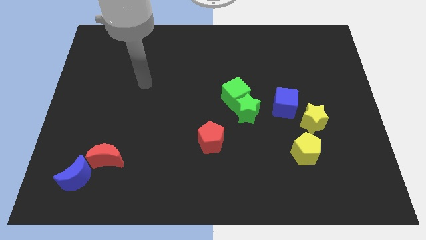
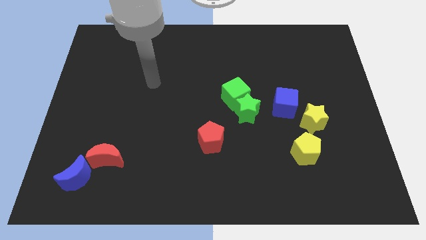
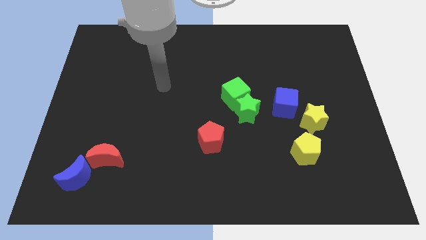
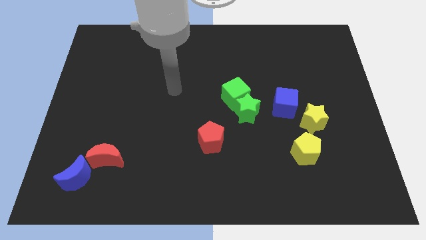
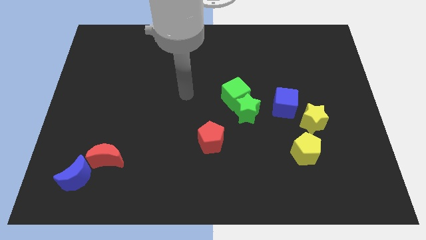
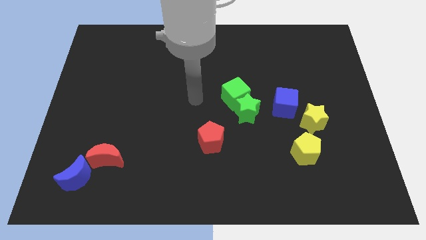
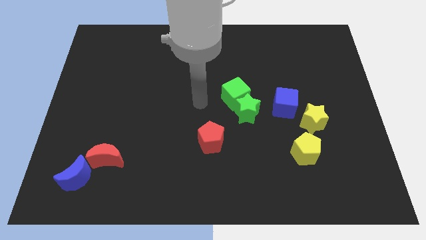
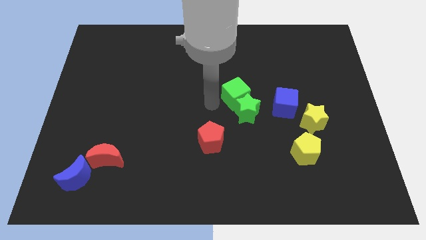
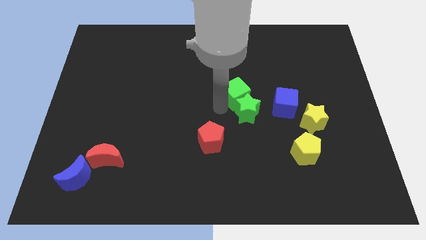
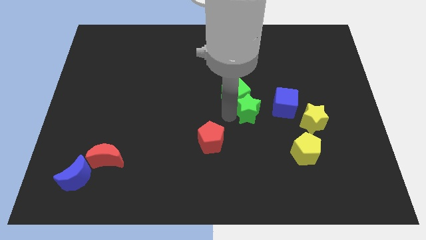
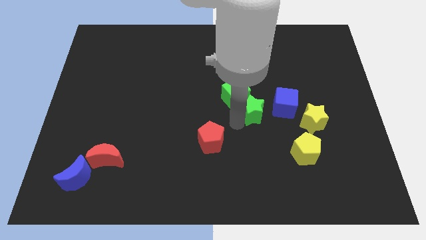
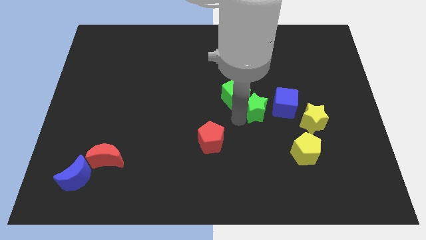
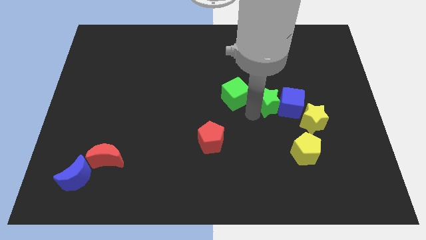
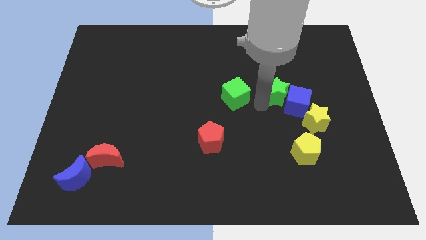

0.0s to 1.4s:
pull the green cube apart from the green star

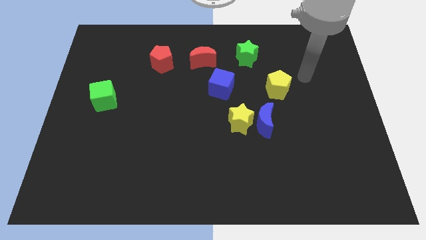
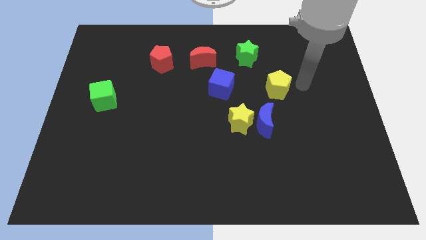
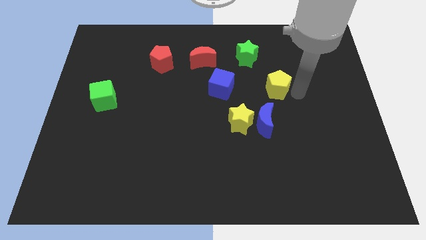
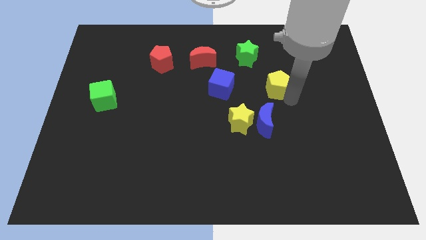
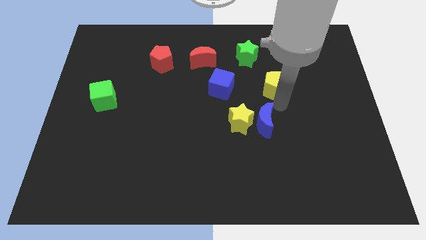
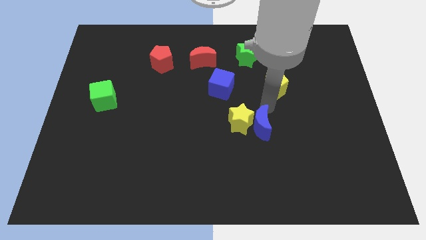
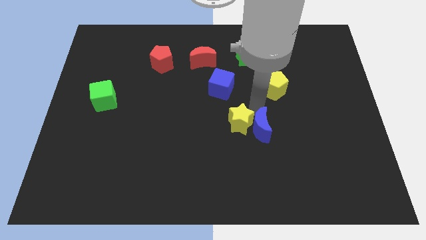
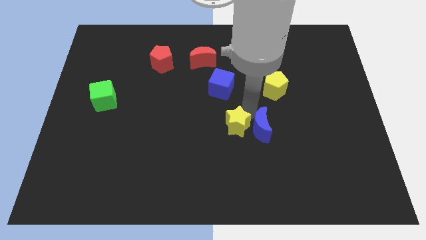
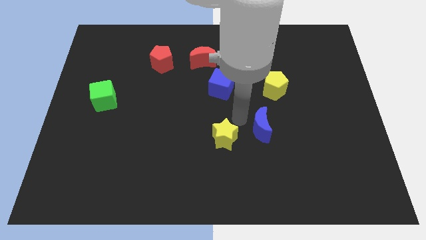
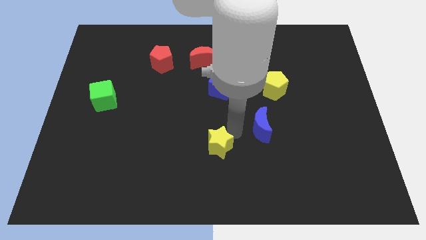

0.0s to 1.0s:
pull the blue moon apart from the yellow star

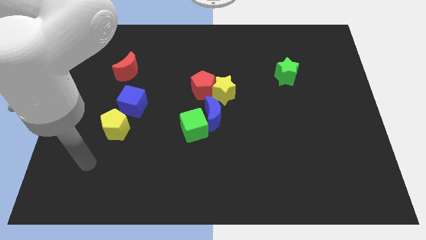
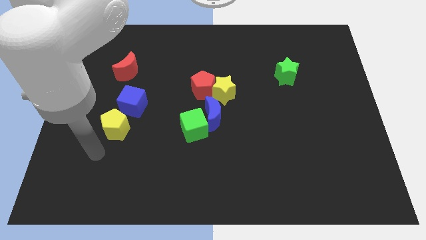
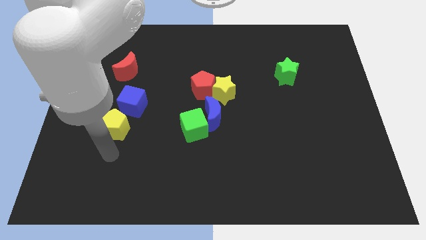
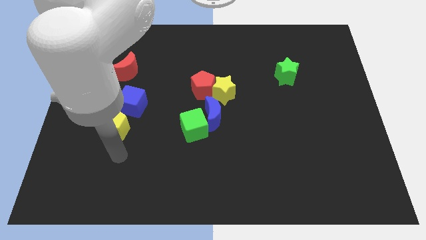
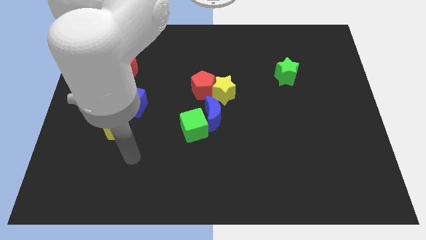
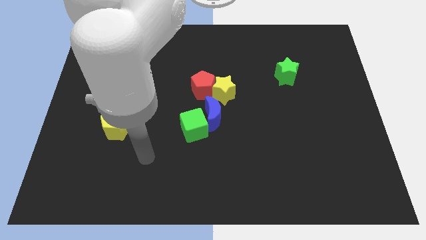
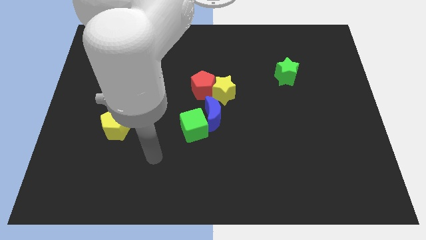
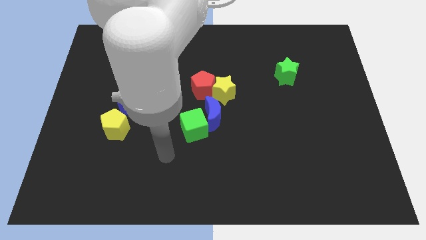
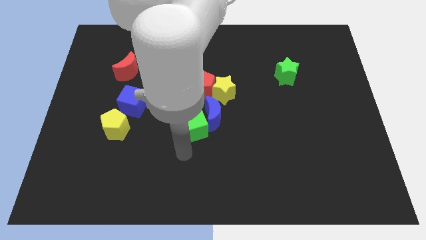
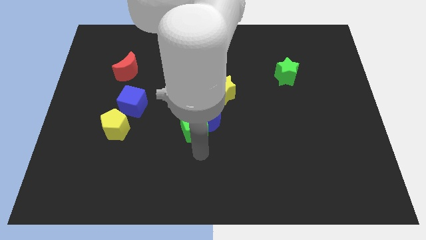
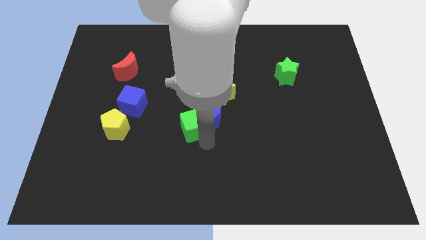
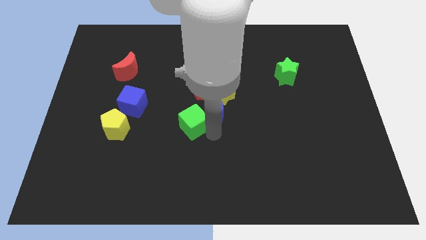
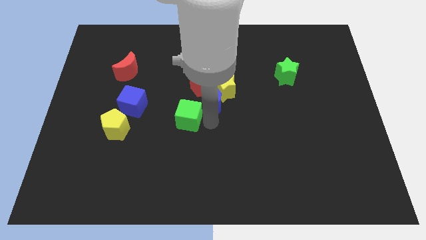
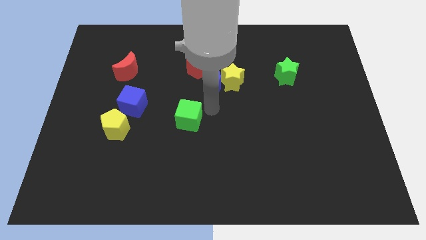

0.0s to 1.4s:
pull the green cube apart from the blue moon

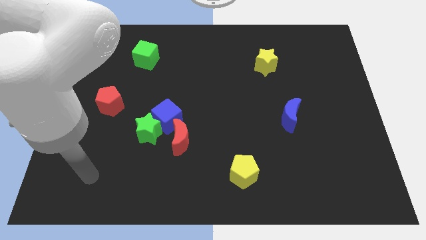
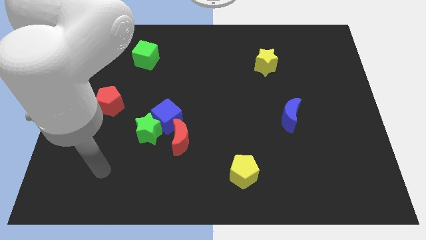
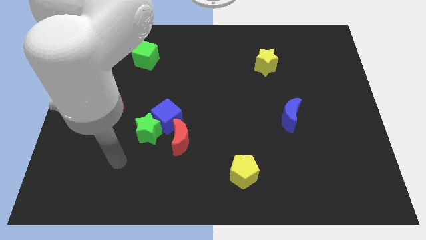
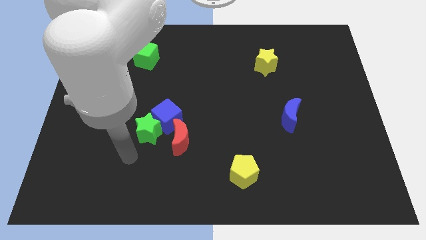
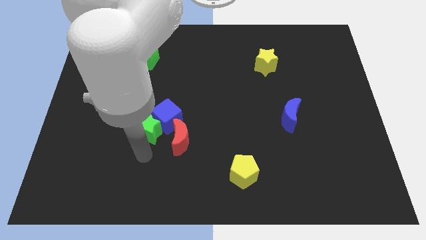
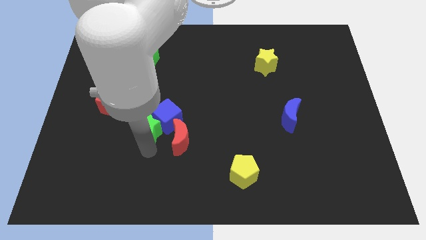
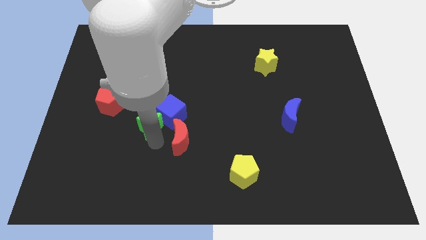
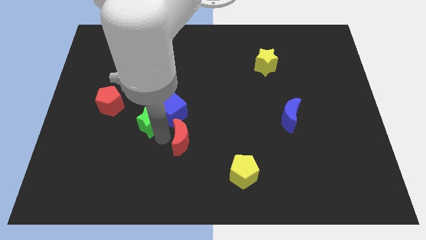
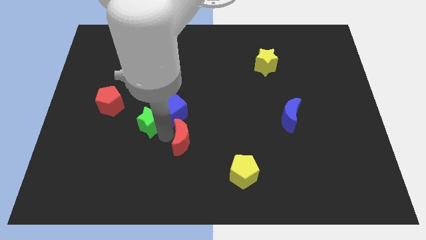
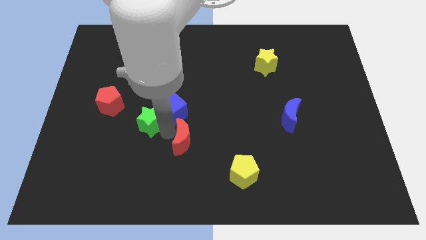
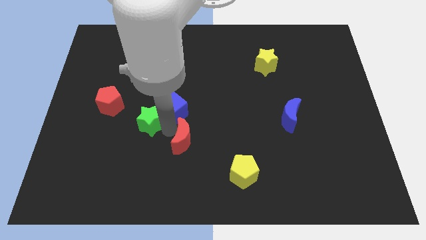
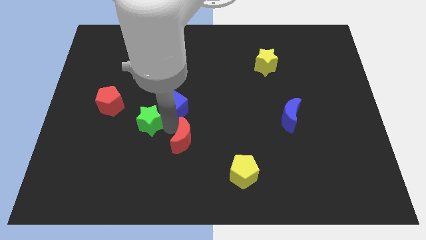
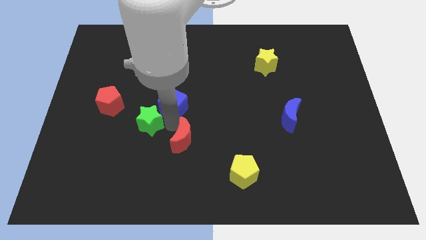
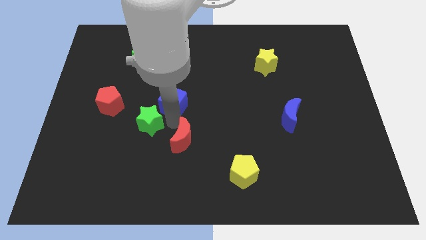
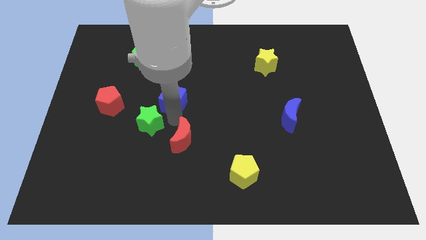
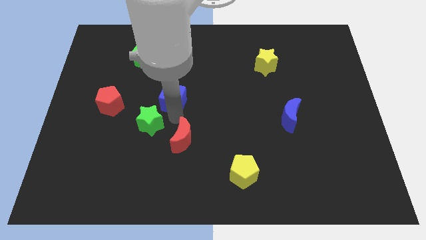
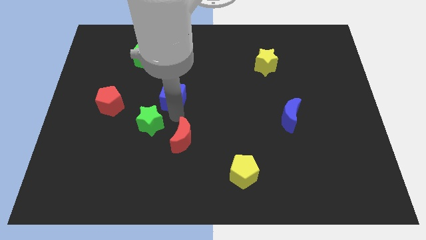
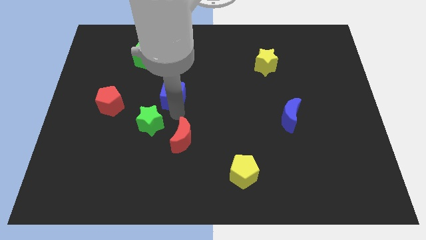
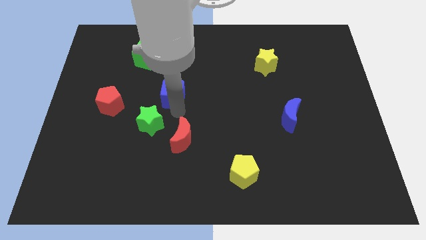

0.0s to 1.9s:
pull the blue cube apart from the green star and red moon

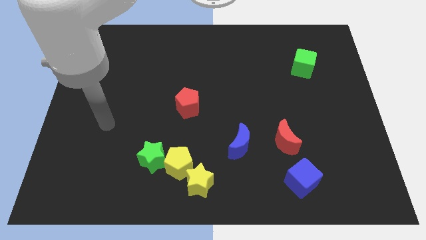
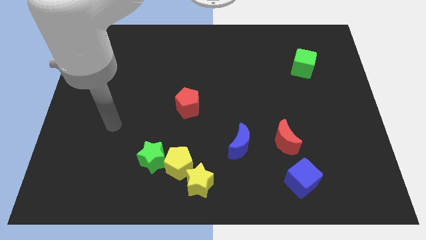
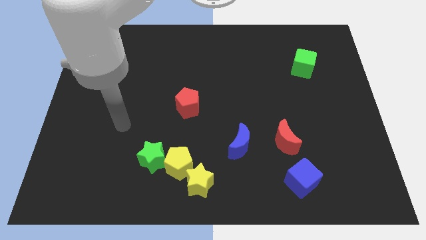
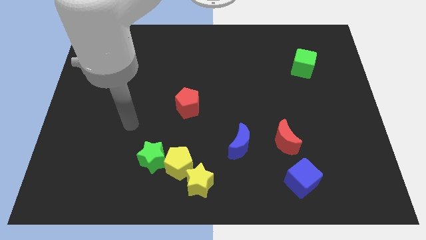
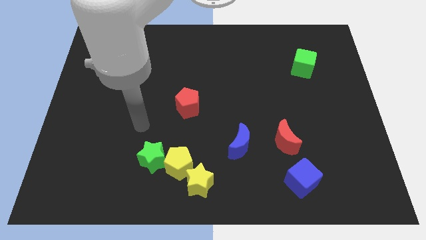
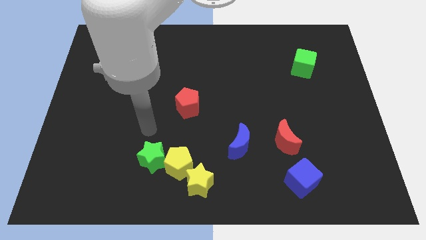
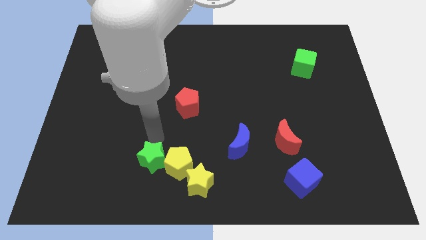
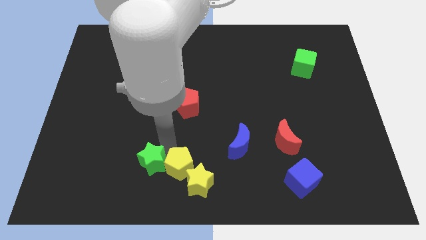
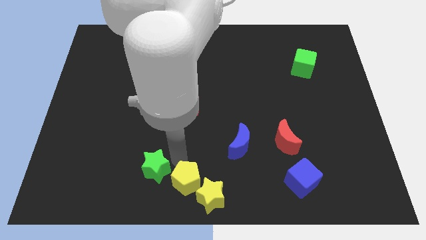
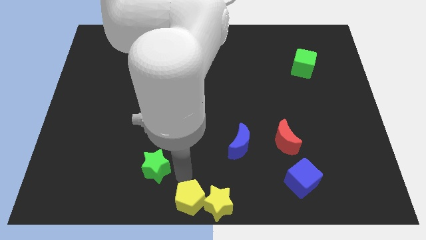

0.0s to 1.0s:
separate the green star from the yellow pentagon

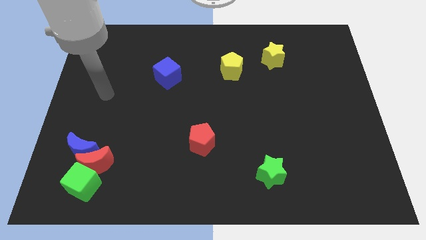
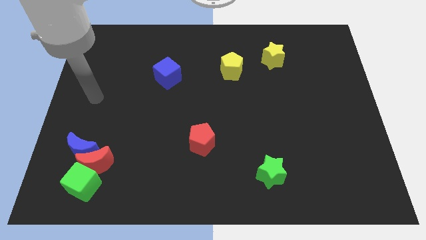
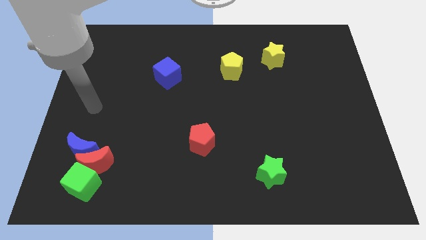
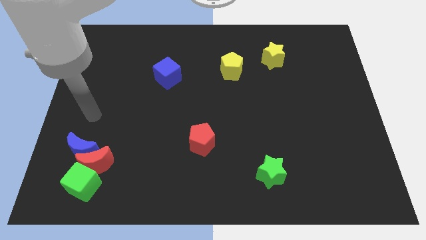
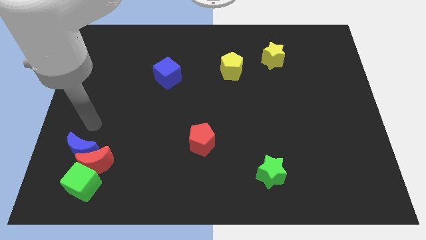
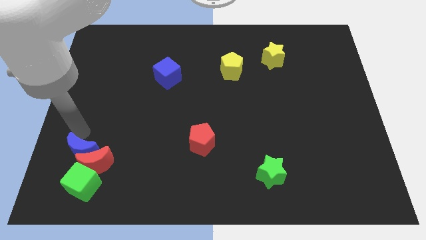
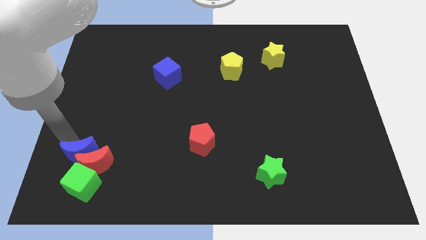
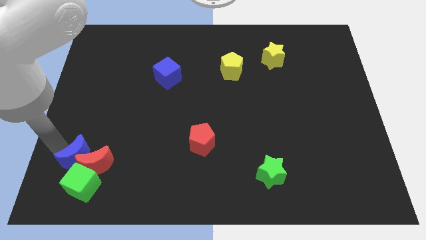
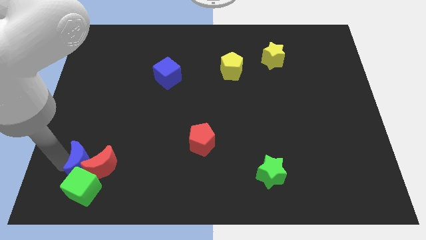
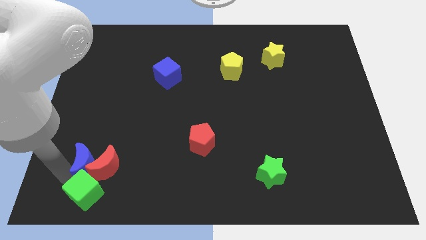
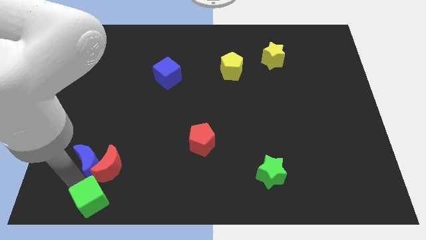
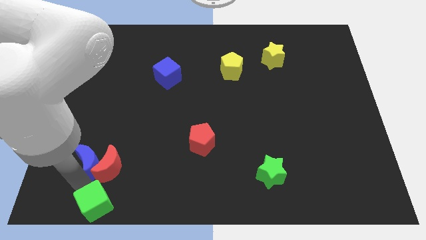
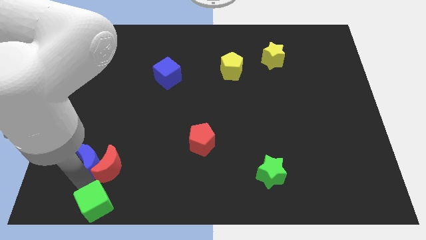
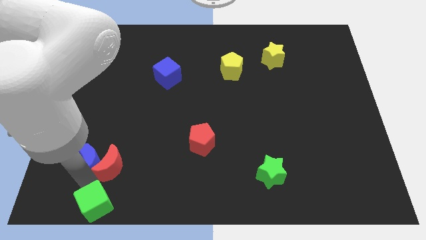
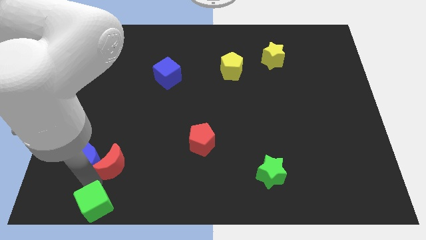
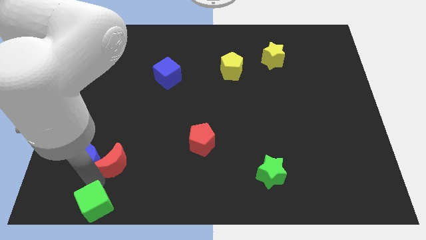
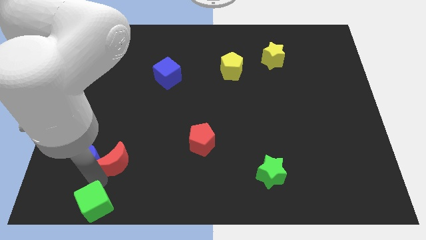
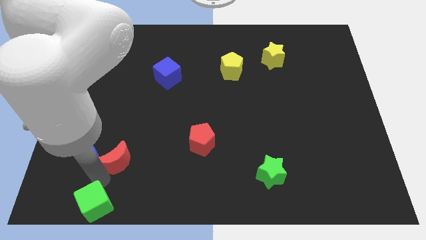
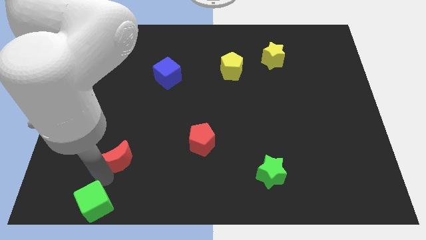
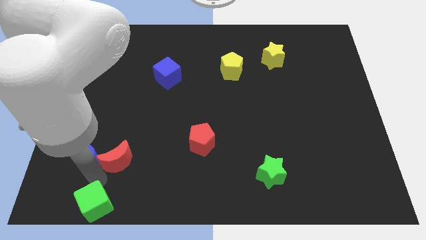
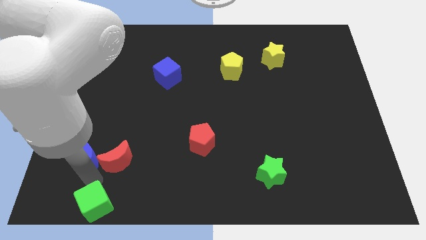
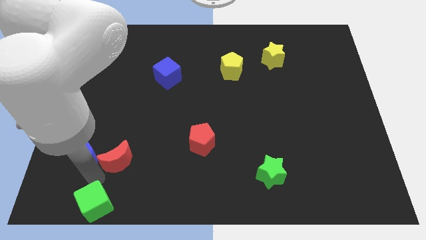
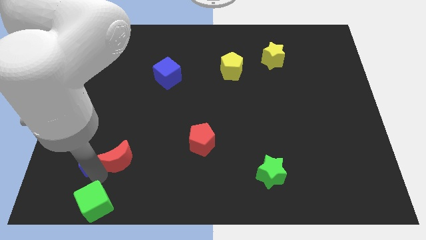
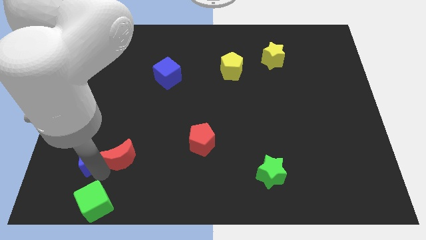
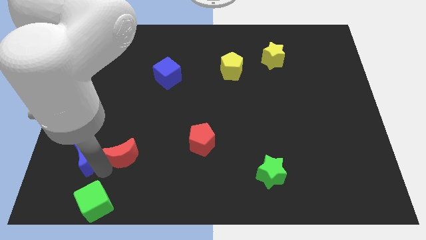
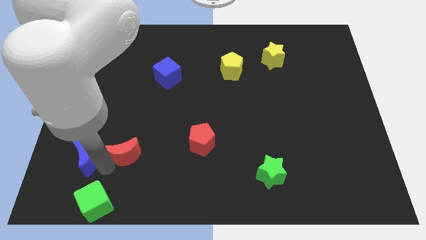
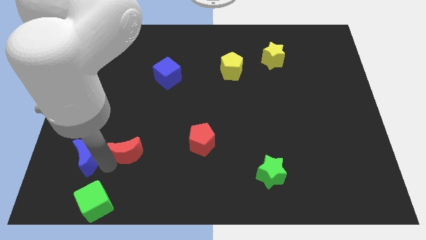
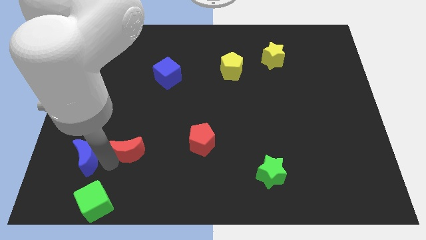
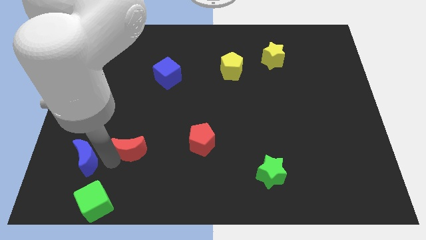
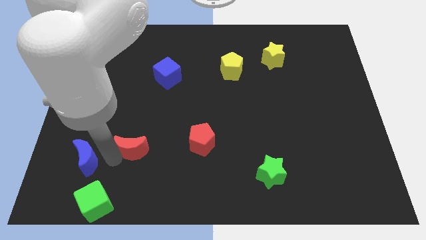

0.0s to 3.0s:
pull the red moon apart from the blue moon and green cube
